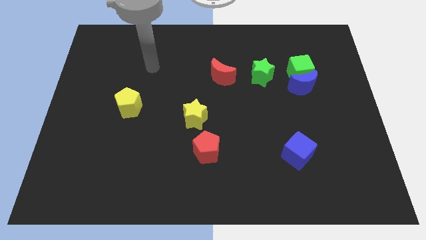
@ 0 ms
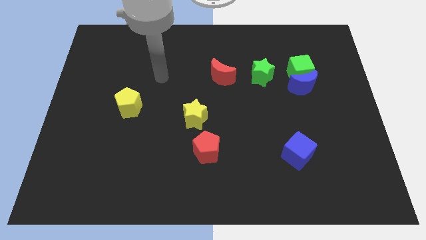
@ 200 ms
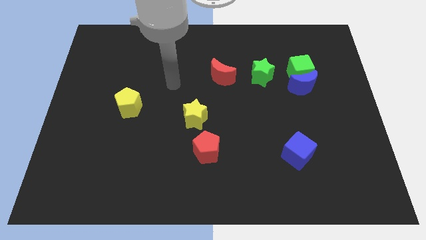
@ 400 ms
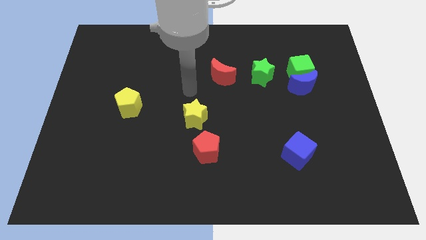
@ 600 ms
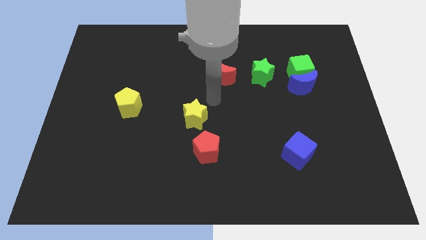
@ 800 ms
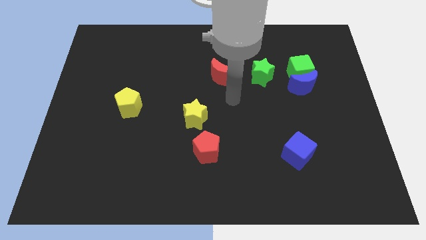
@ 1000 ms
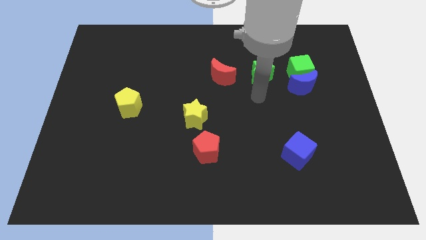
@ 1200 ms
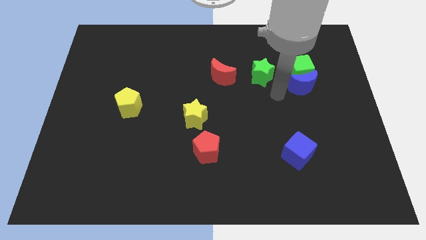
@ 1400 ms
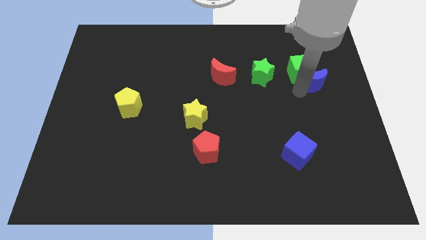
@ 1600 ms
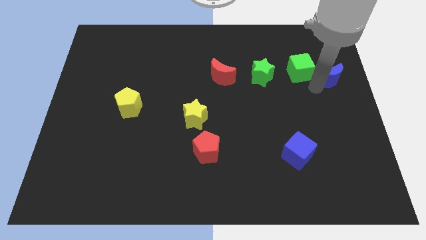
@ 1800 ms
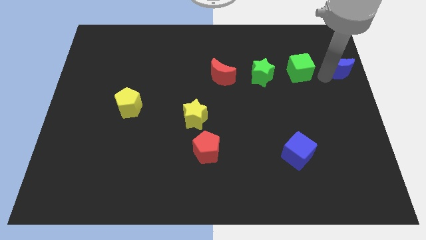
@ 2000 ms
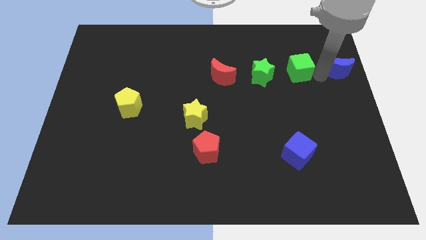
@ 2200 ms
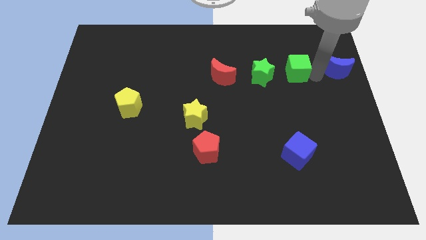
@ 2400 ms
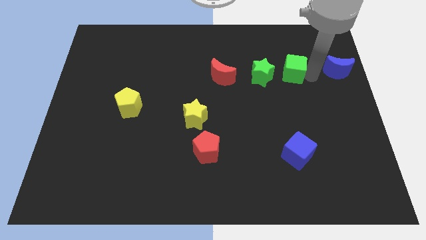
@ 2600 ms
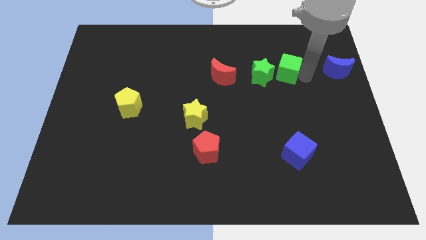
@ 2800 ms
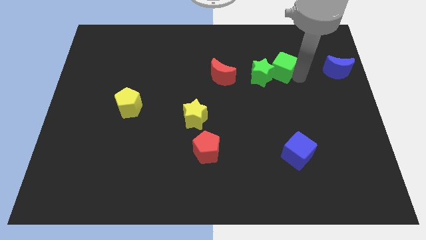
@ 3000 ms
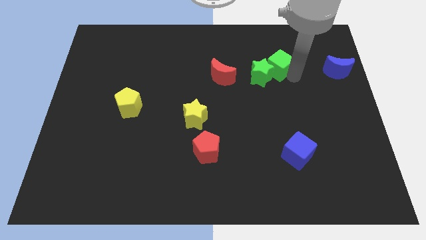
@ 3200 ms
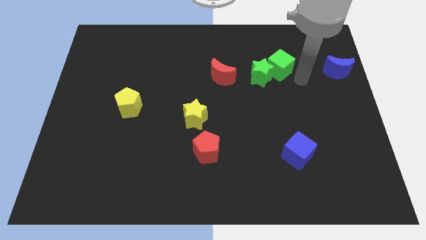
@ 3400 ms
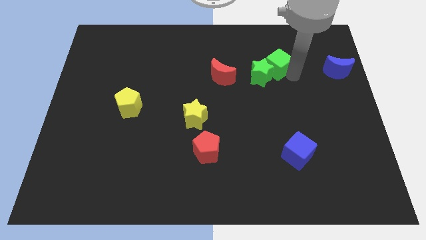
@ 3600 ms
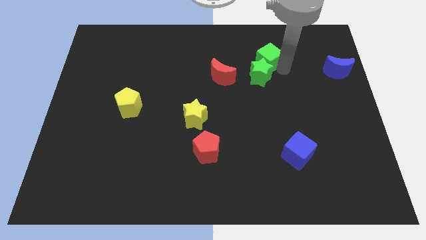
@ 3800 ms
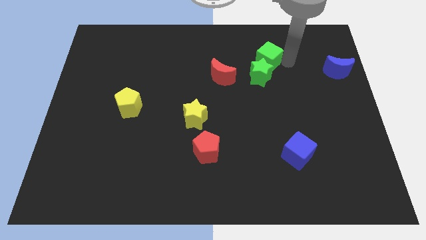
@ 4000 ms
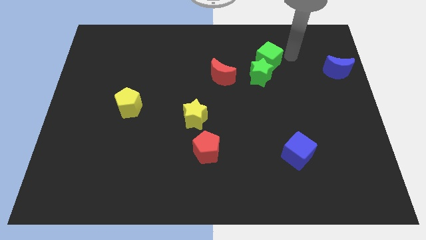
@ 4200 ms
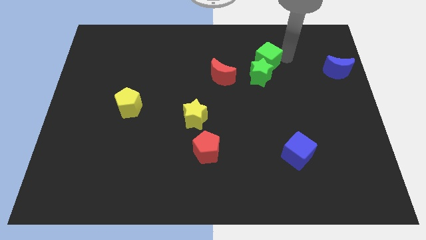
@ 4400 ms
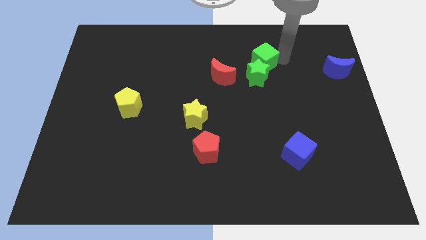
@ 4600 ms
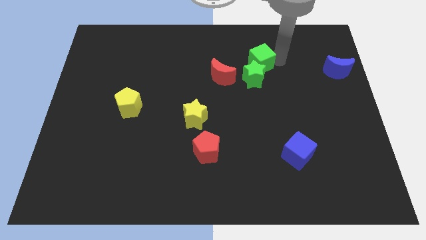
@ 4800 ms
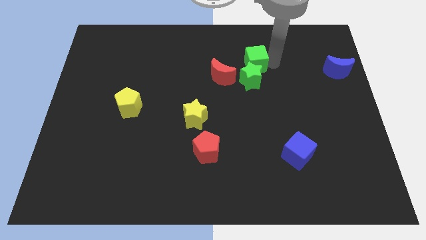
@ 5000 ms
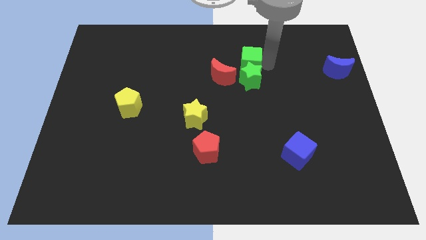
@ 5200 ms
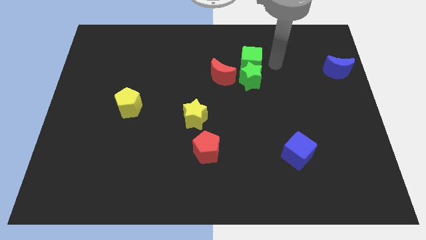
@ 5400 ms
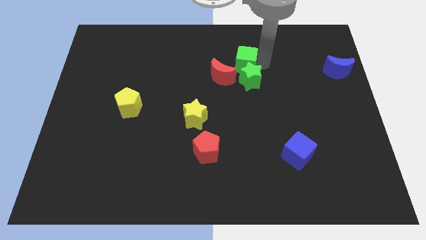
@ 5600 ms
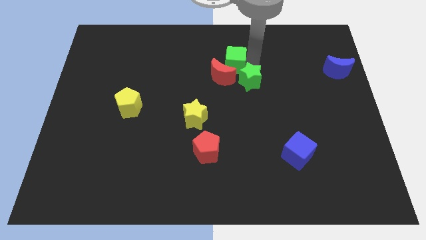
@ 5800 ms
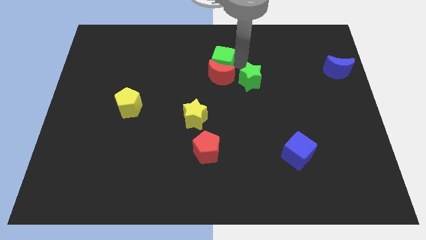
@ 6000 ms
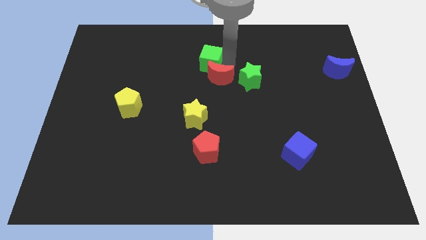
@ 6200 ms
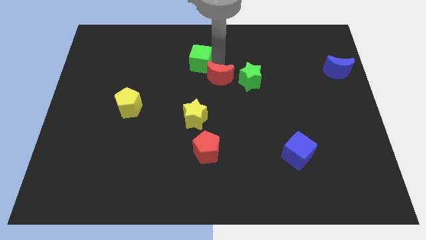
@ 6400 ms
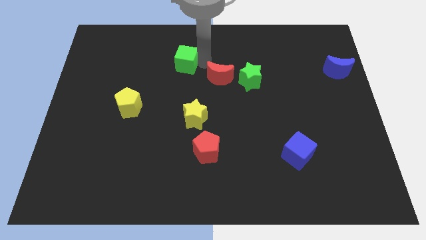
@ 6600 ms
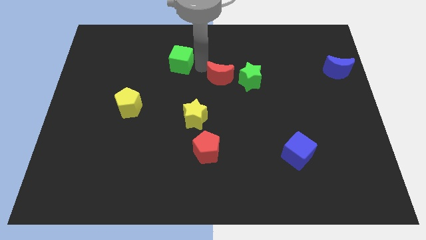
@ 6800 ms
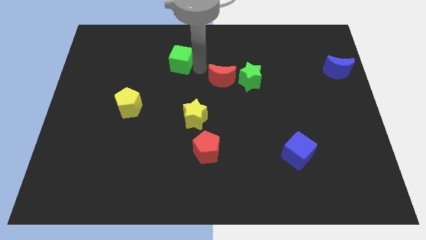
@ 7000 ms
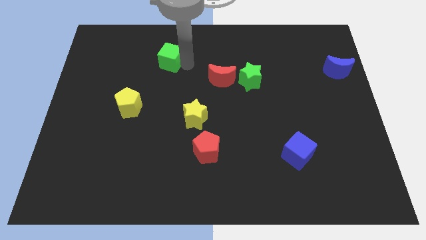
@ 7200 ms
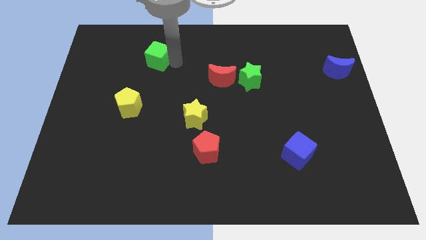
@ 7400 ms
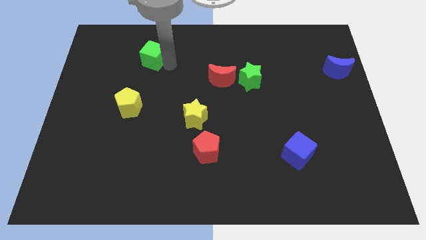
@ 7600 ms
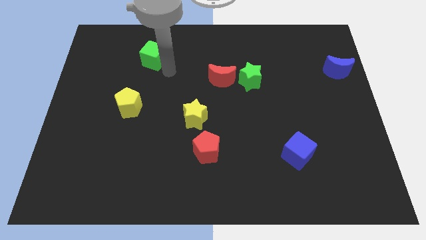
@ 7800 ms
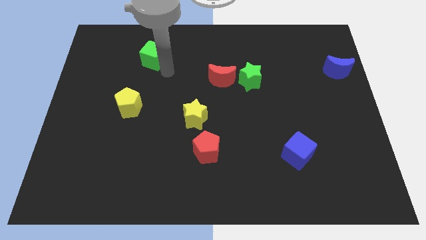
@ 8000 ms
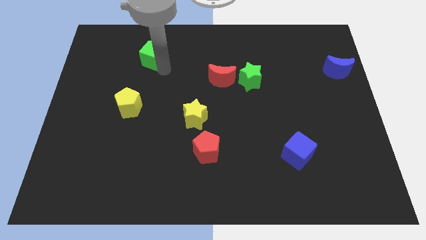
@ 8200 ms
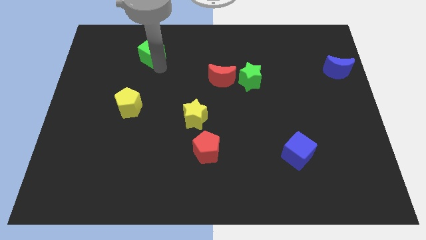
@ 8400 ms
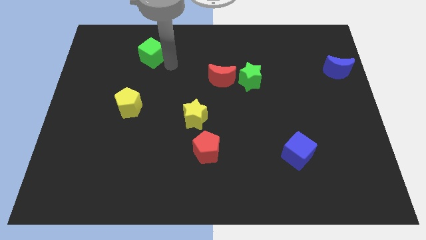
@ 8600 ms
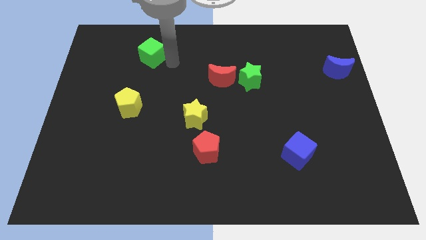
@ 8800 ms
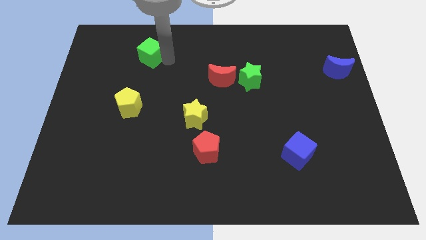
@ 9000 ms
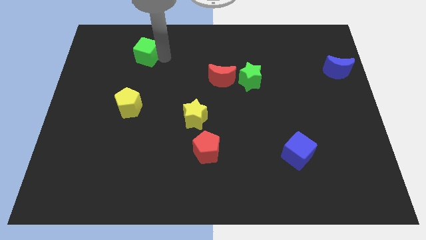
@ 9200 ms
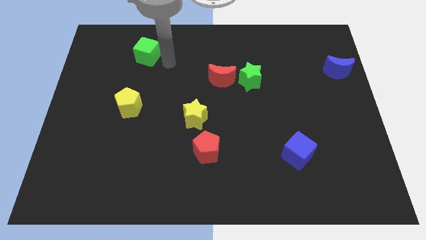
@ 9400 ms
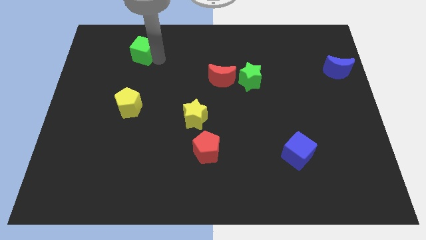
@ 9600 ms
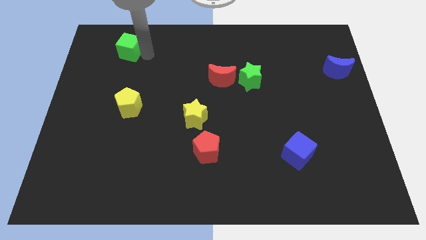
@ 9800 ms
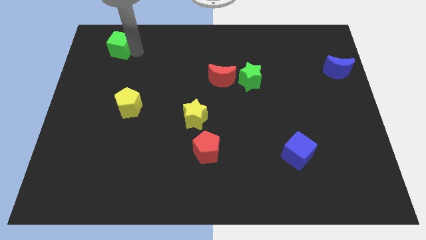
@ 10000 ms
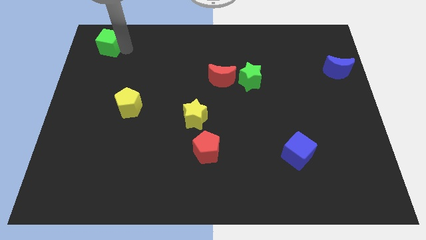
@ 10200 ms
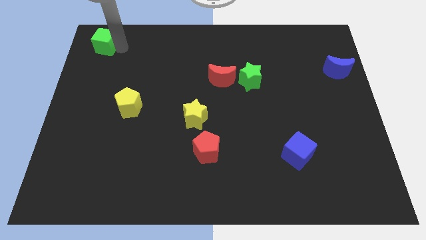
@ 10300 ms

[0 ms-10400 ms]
move the green cube to the top left of the board

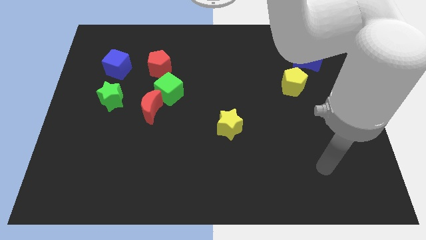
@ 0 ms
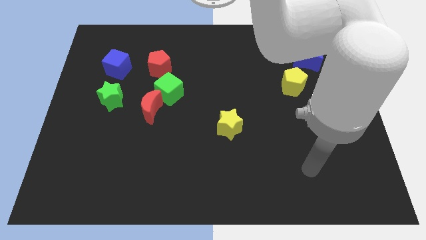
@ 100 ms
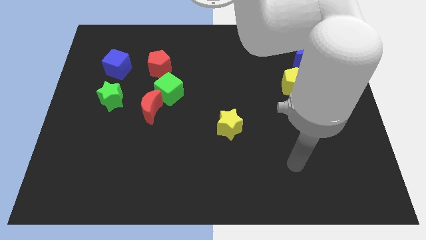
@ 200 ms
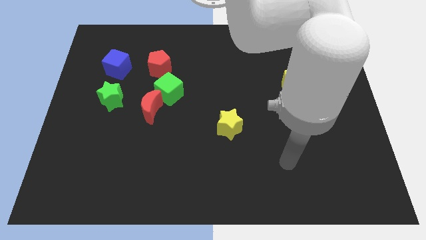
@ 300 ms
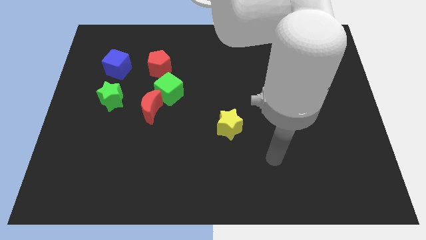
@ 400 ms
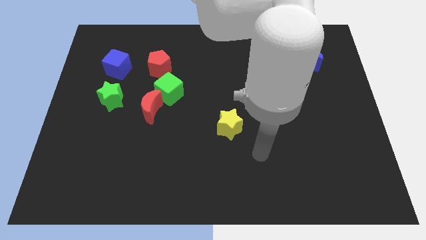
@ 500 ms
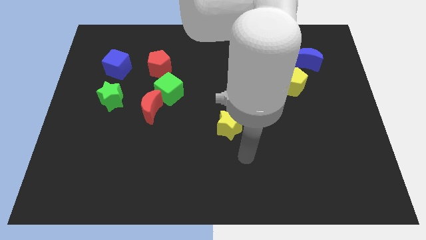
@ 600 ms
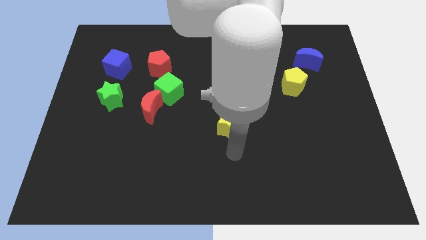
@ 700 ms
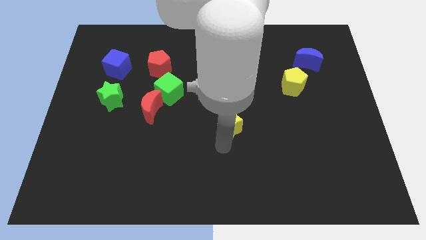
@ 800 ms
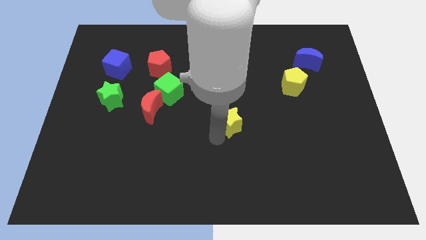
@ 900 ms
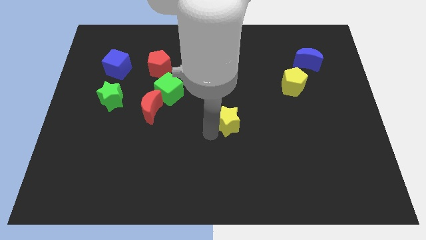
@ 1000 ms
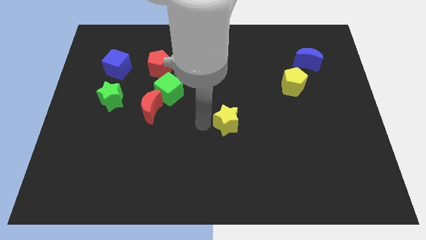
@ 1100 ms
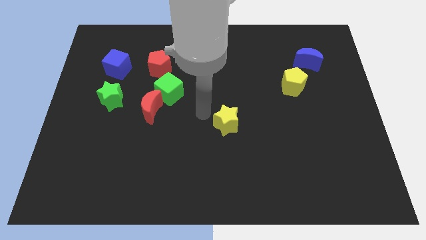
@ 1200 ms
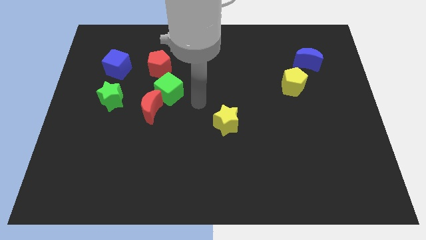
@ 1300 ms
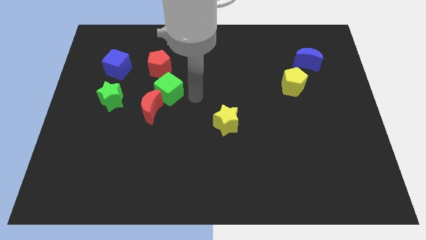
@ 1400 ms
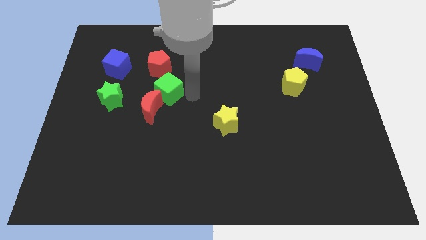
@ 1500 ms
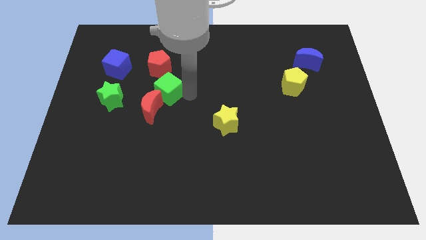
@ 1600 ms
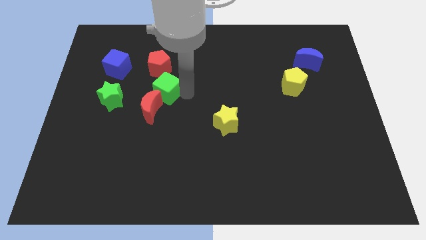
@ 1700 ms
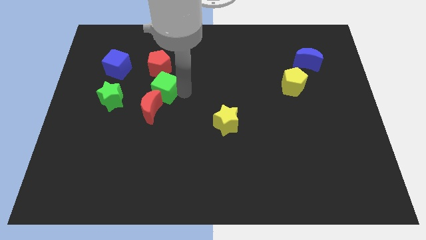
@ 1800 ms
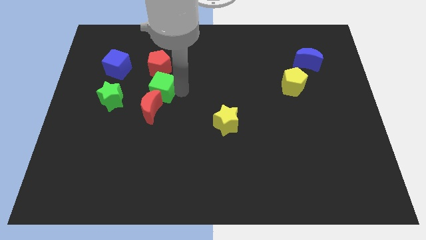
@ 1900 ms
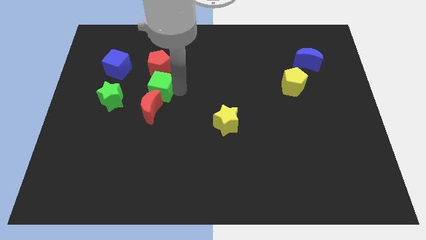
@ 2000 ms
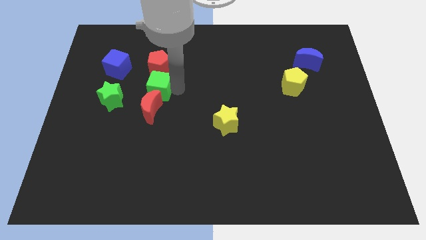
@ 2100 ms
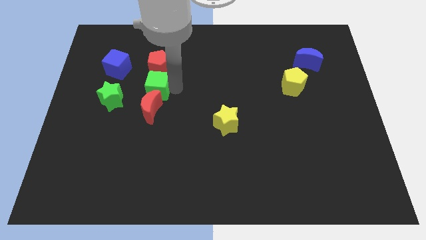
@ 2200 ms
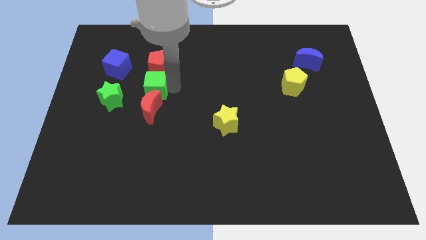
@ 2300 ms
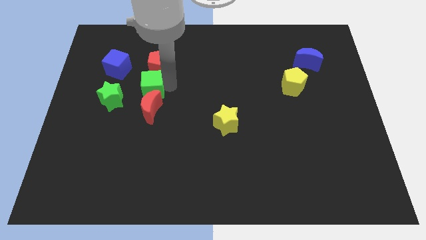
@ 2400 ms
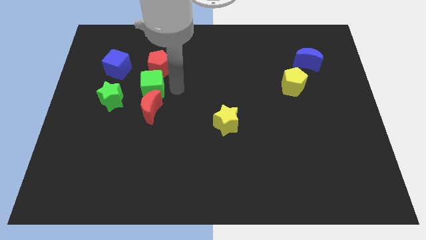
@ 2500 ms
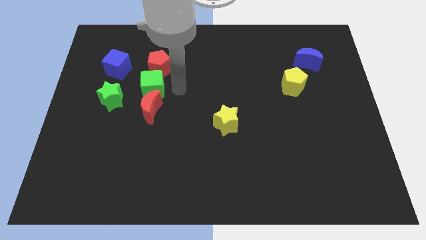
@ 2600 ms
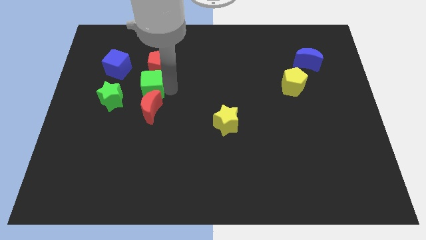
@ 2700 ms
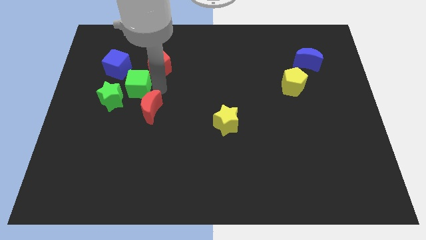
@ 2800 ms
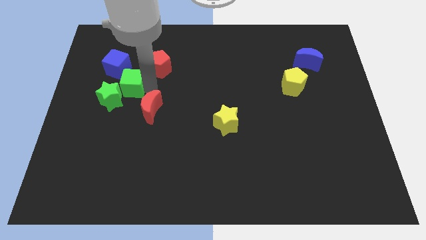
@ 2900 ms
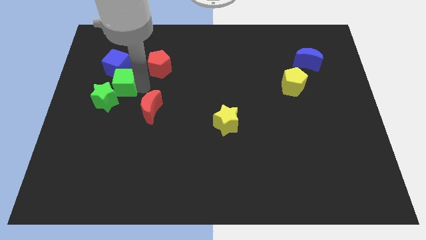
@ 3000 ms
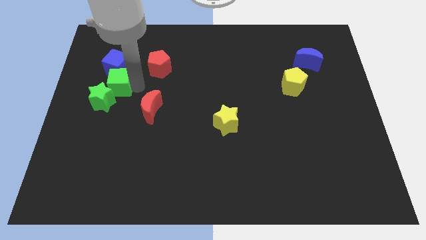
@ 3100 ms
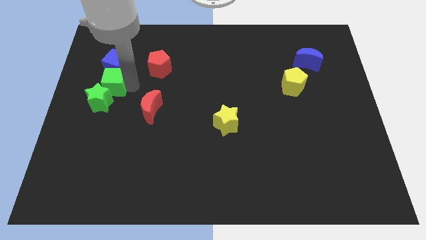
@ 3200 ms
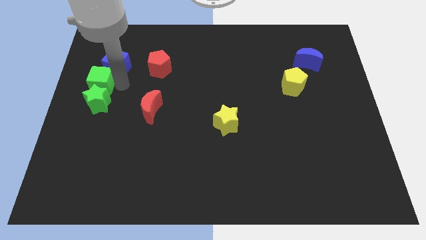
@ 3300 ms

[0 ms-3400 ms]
slide the green cube to the left side
